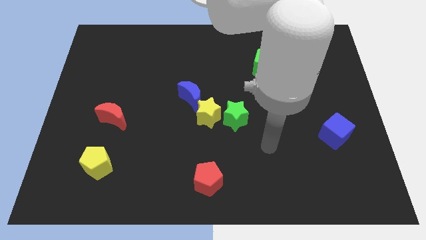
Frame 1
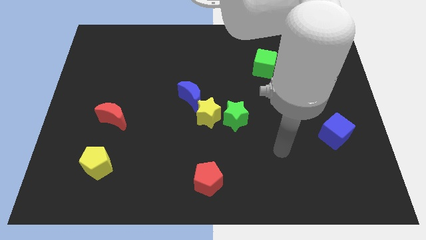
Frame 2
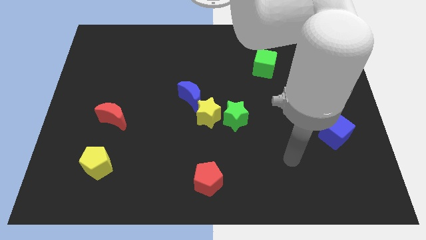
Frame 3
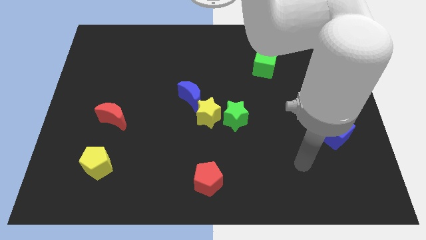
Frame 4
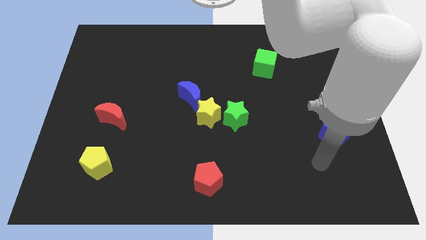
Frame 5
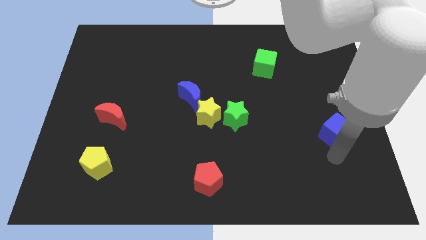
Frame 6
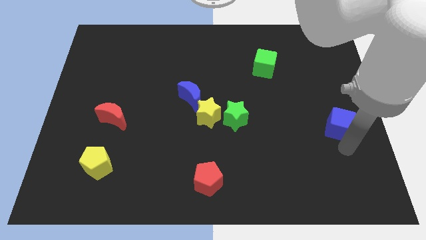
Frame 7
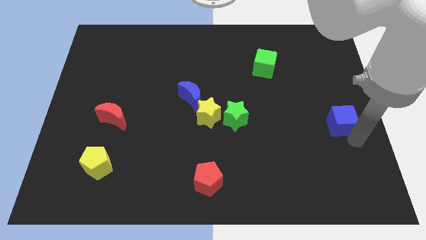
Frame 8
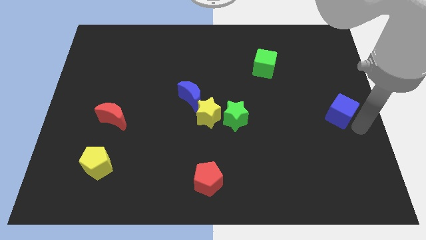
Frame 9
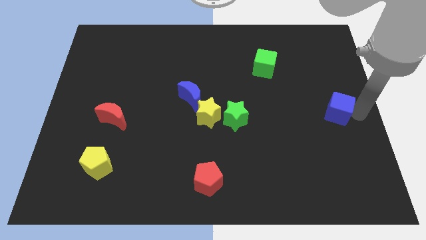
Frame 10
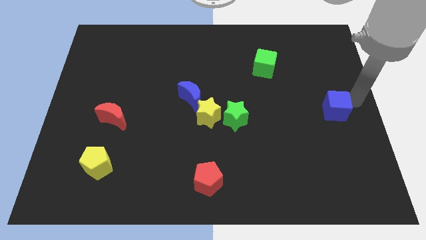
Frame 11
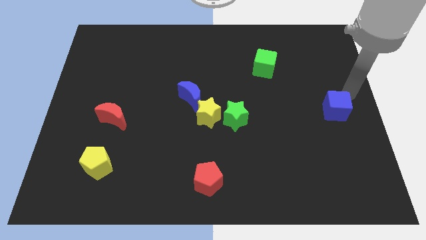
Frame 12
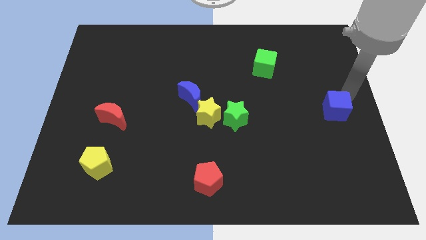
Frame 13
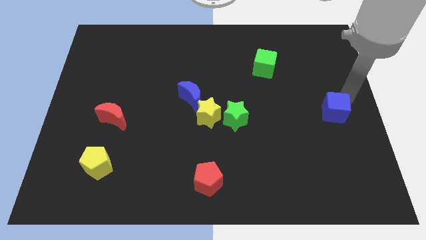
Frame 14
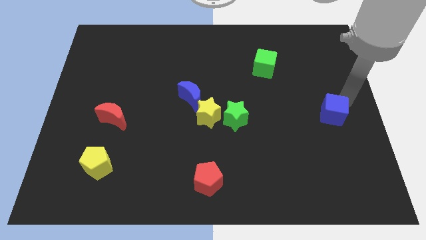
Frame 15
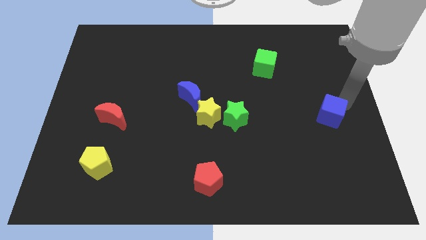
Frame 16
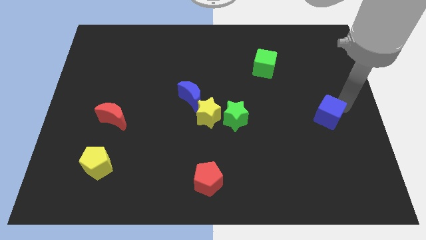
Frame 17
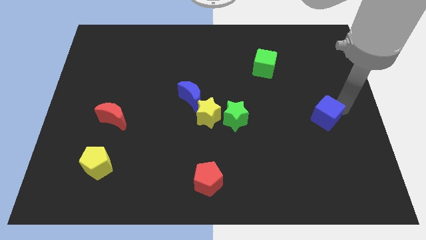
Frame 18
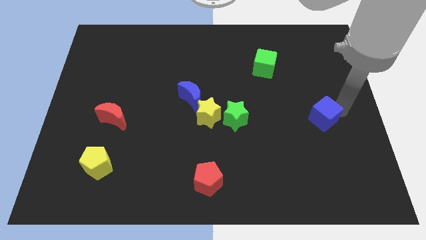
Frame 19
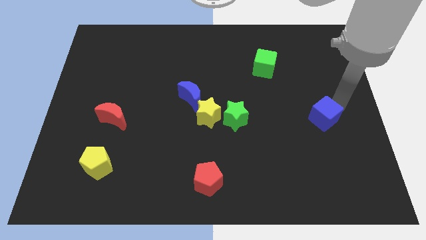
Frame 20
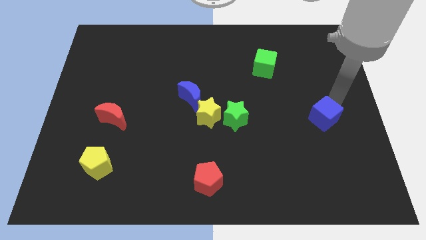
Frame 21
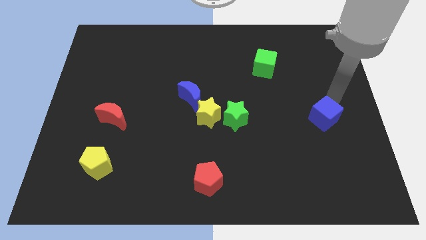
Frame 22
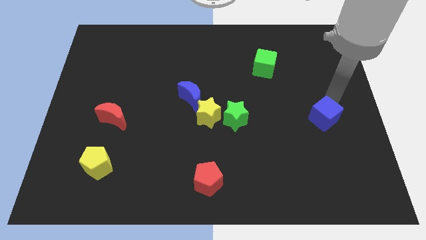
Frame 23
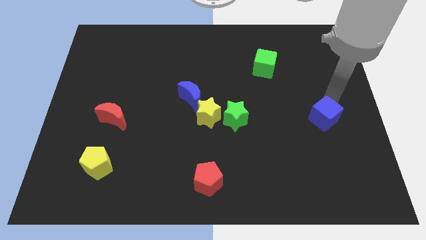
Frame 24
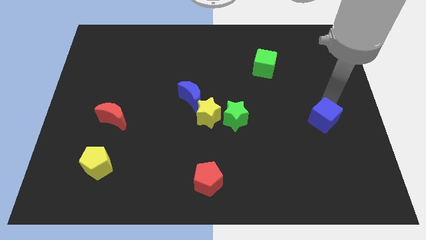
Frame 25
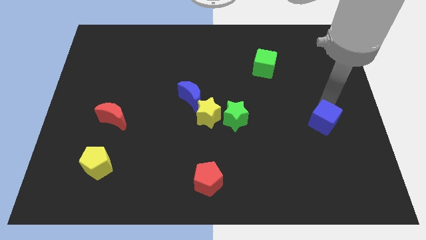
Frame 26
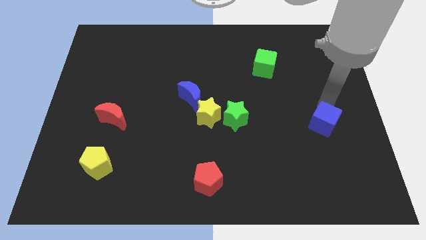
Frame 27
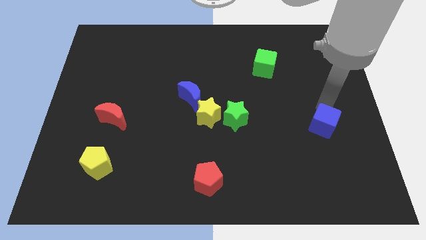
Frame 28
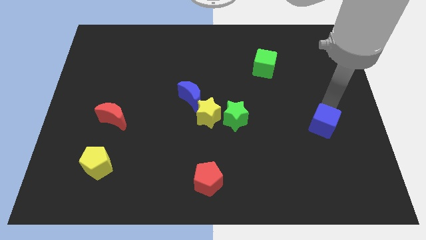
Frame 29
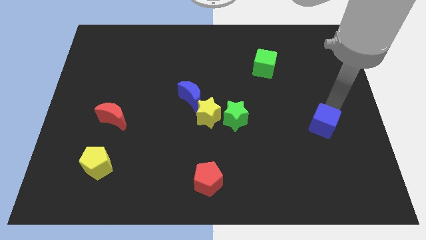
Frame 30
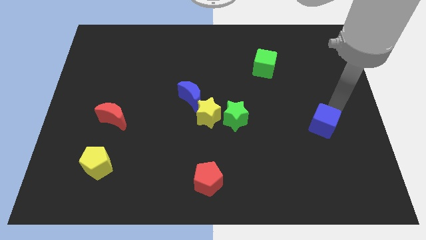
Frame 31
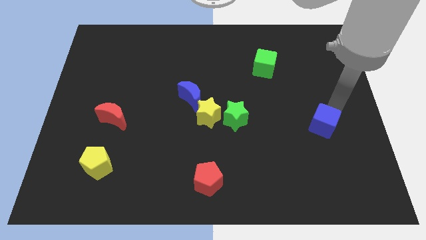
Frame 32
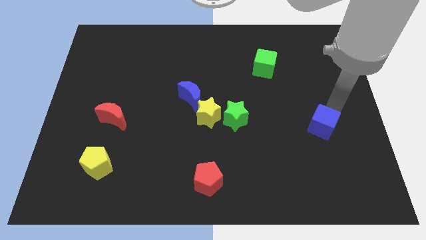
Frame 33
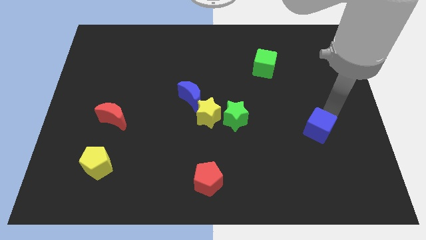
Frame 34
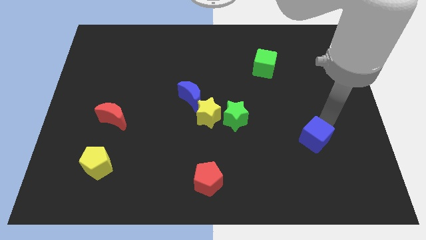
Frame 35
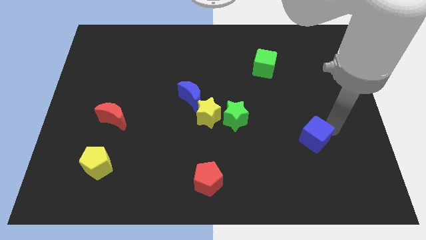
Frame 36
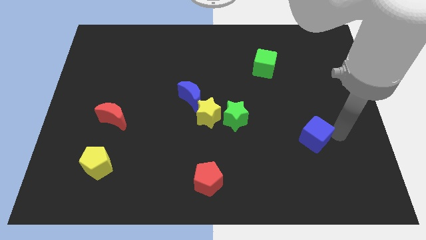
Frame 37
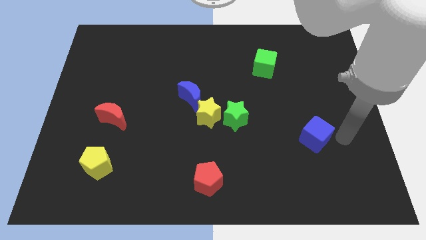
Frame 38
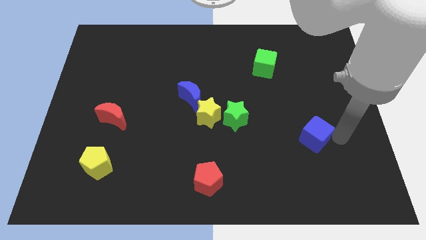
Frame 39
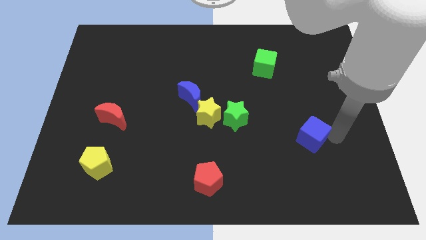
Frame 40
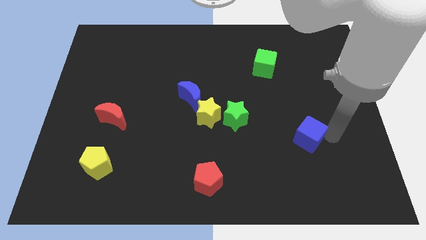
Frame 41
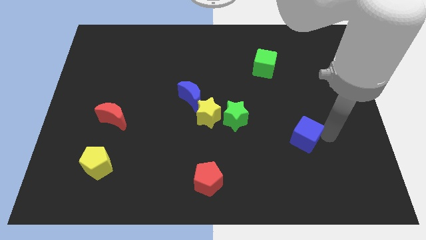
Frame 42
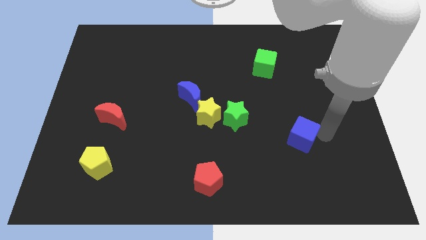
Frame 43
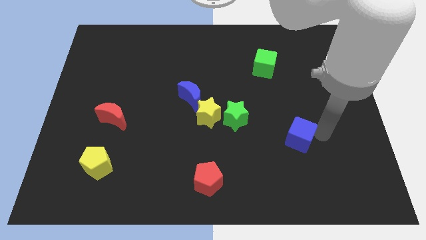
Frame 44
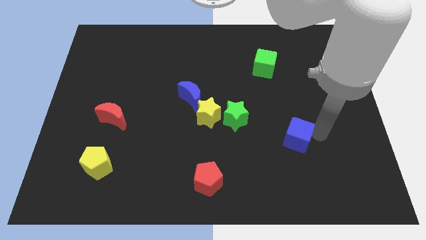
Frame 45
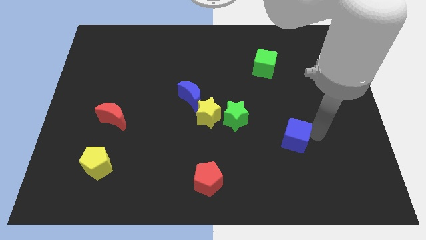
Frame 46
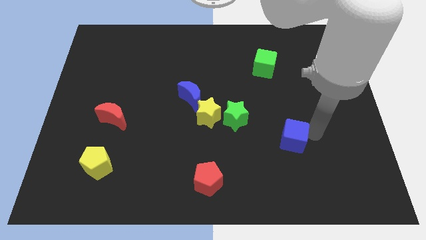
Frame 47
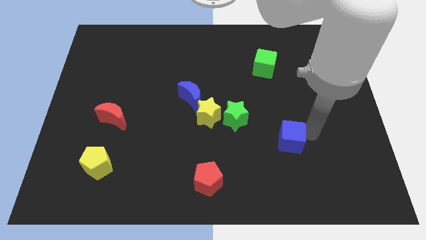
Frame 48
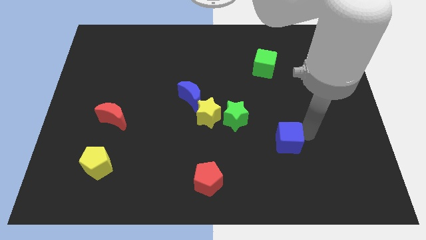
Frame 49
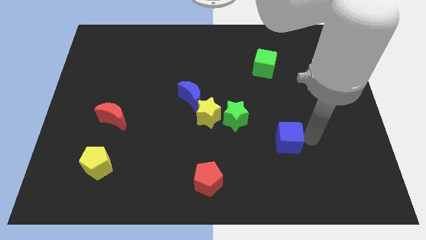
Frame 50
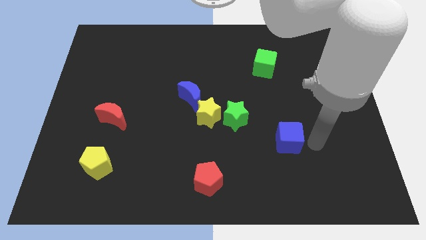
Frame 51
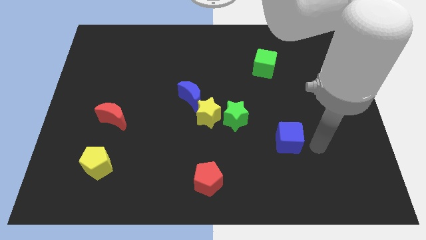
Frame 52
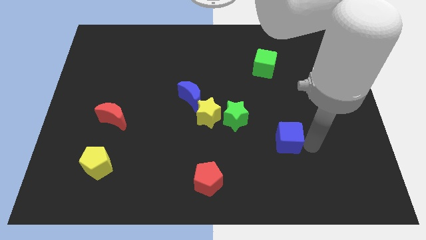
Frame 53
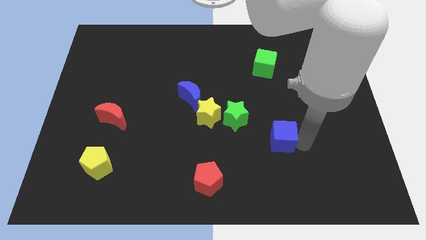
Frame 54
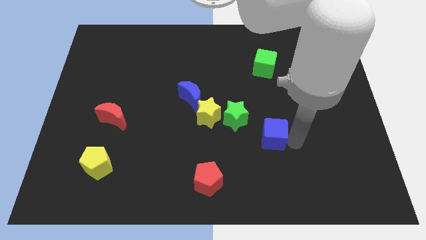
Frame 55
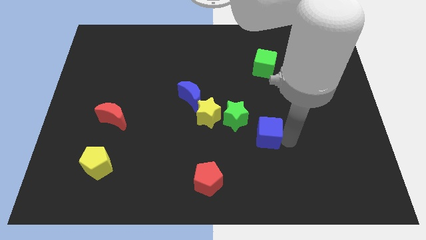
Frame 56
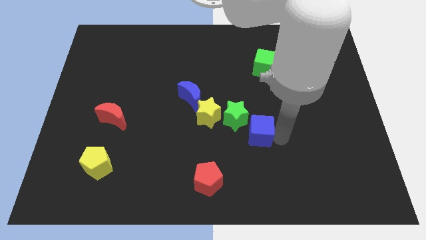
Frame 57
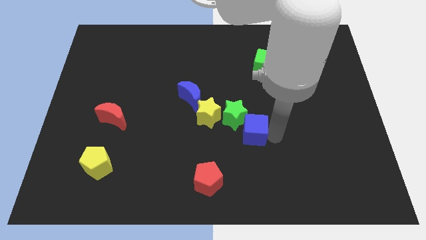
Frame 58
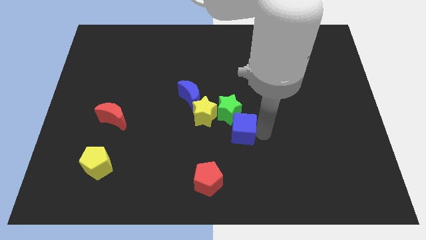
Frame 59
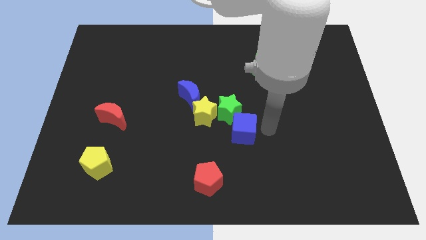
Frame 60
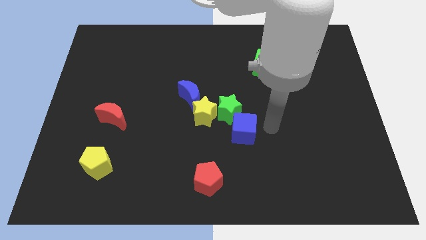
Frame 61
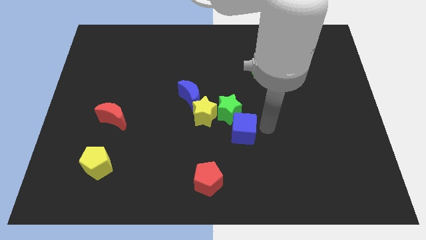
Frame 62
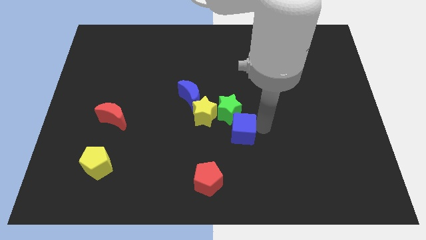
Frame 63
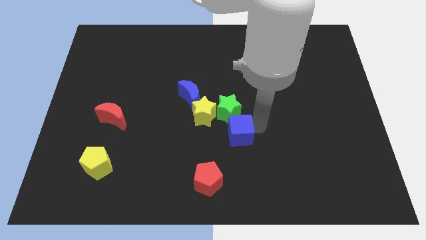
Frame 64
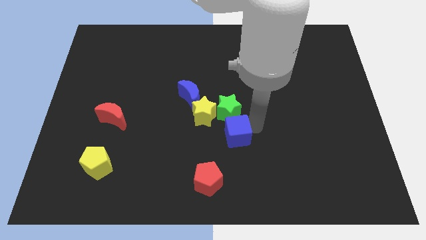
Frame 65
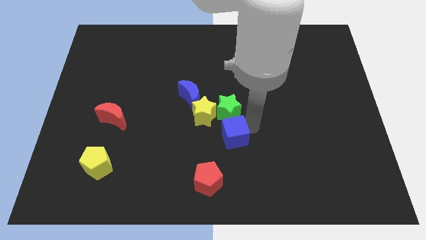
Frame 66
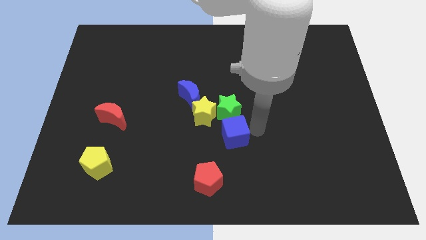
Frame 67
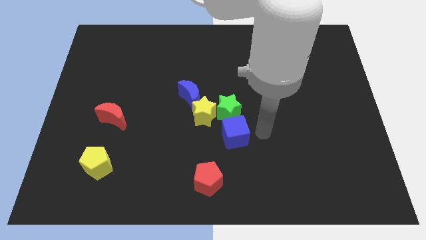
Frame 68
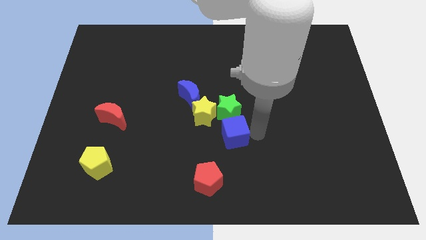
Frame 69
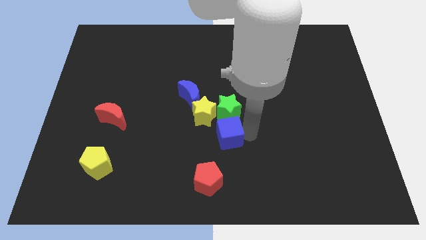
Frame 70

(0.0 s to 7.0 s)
push the blue cube to the top of the red pentagon
